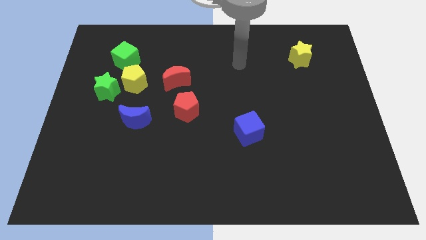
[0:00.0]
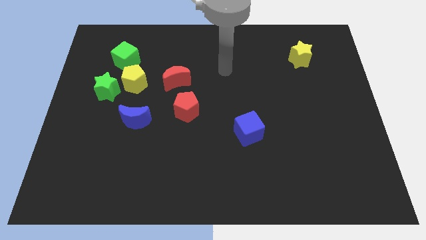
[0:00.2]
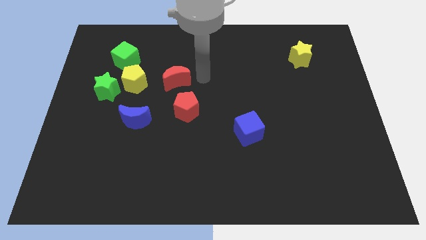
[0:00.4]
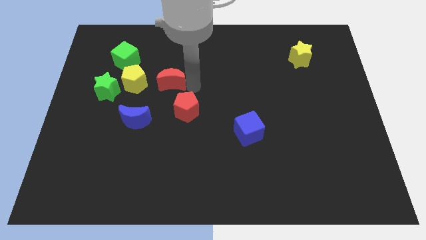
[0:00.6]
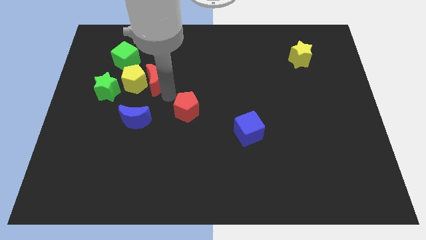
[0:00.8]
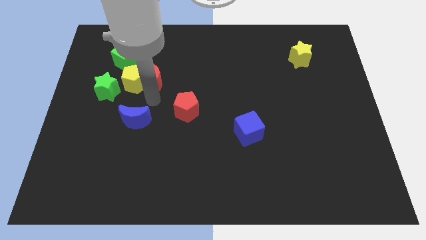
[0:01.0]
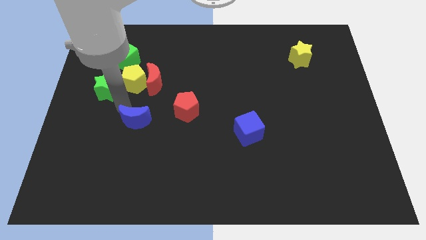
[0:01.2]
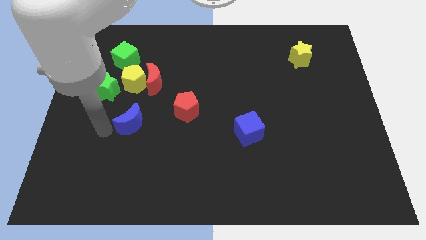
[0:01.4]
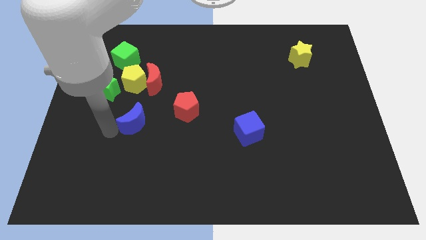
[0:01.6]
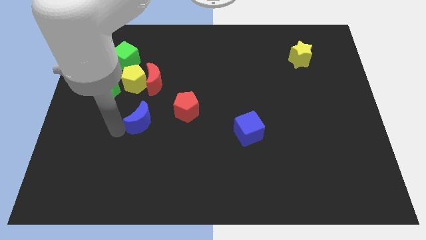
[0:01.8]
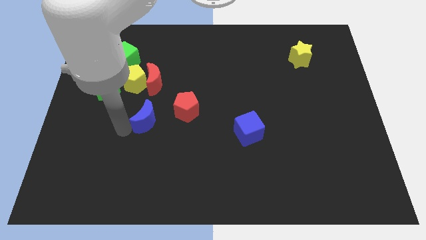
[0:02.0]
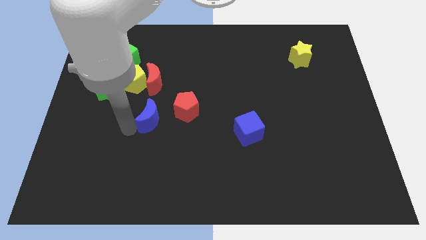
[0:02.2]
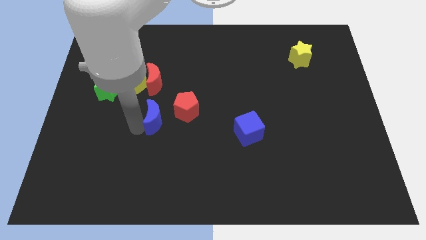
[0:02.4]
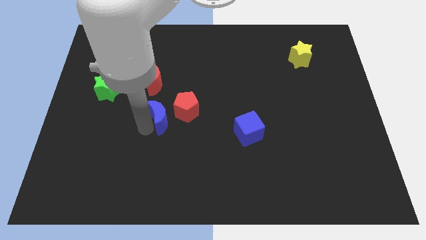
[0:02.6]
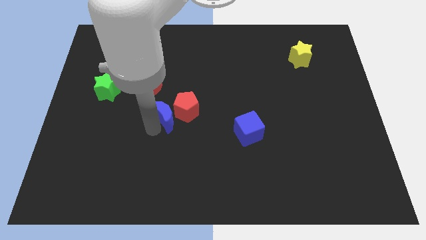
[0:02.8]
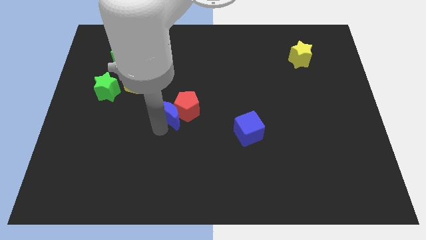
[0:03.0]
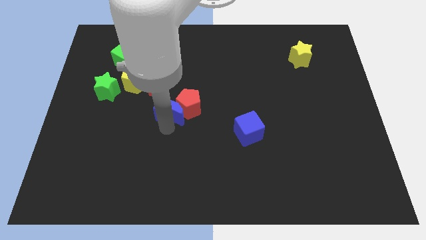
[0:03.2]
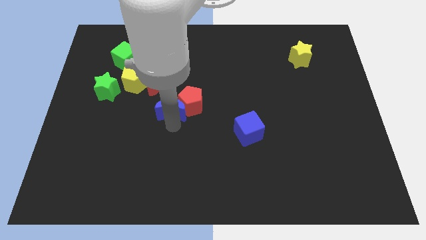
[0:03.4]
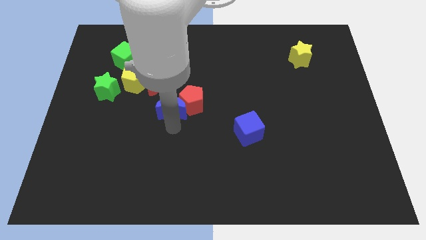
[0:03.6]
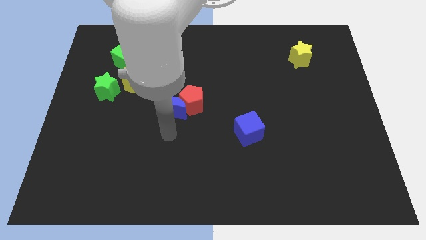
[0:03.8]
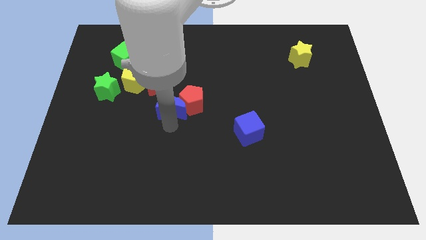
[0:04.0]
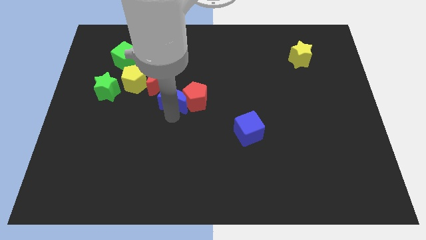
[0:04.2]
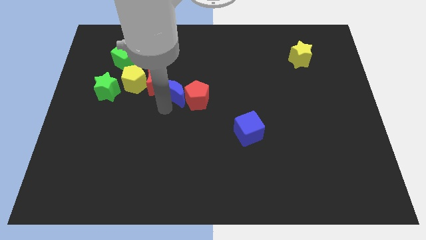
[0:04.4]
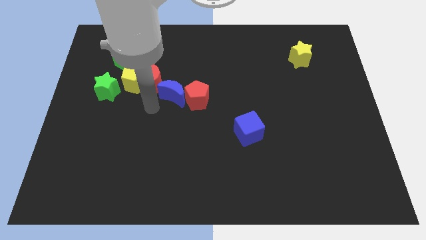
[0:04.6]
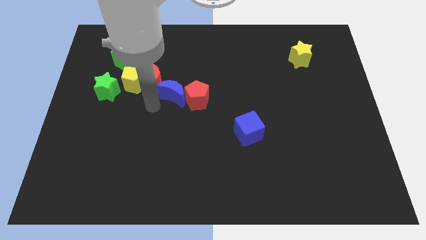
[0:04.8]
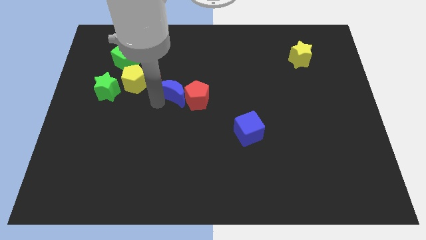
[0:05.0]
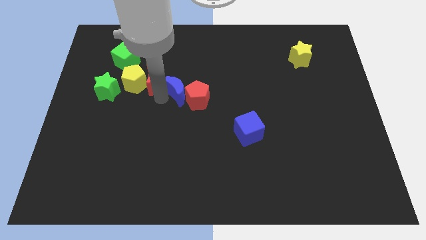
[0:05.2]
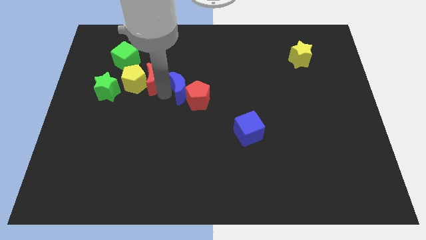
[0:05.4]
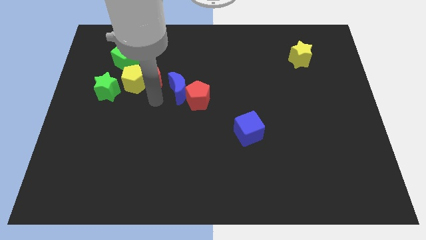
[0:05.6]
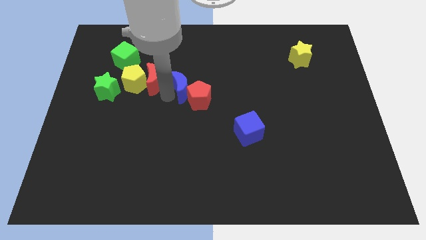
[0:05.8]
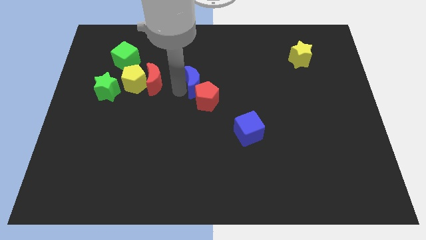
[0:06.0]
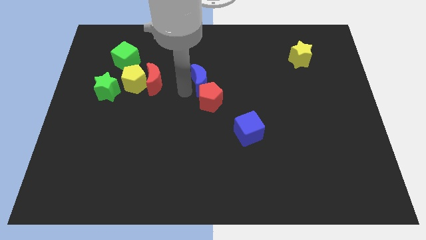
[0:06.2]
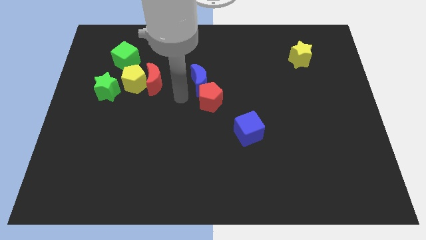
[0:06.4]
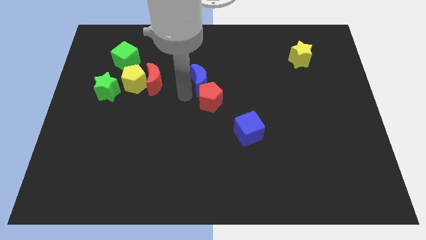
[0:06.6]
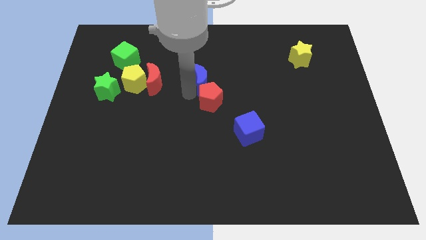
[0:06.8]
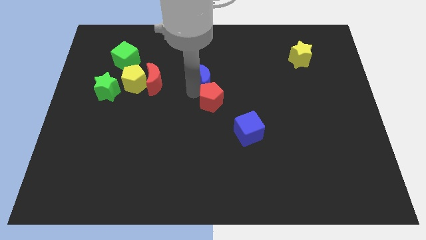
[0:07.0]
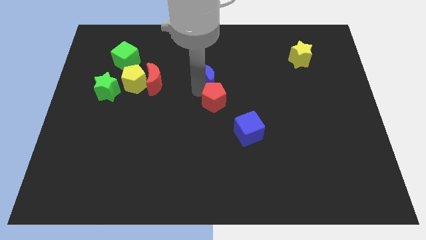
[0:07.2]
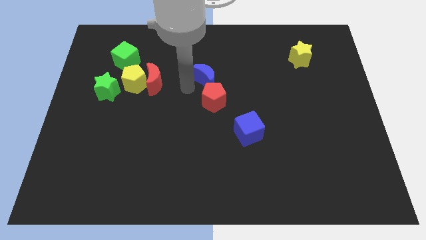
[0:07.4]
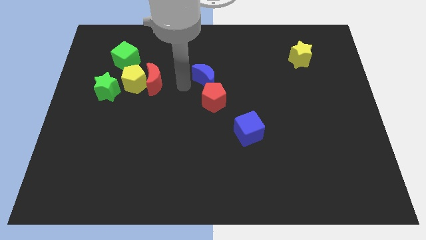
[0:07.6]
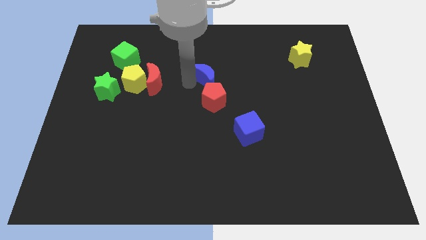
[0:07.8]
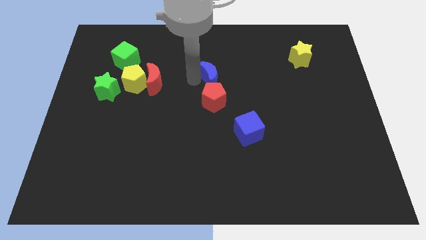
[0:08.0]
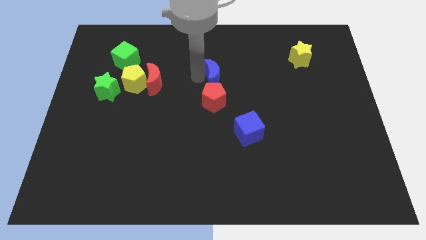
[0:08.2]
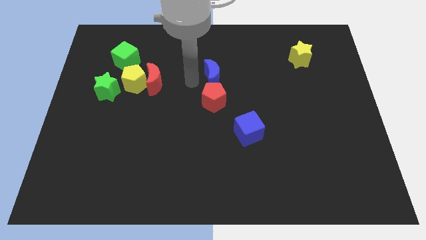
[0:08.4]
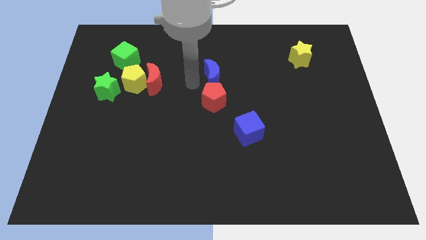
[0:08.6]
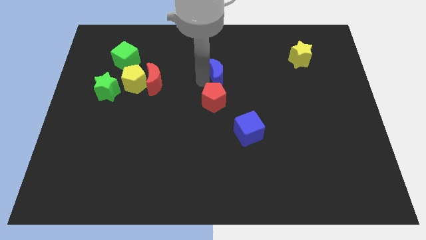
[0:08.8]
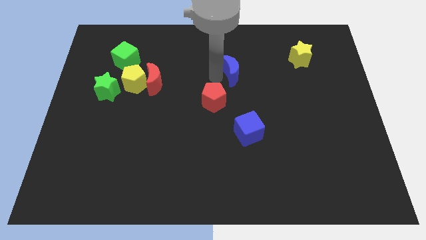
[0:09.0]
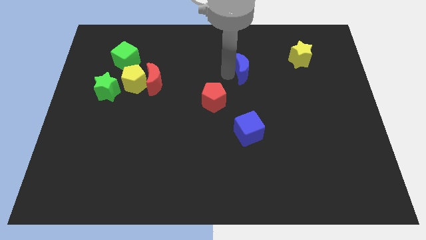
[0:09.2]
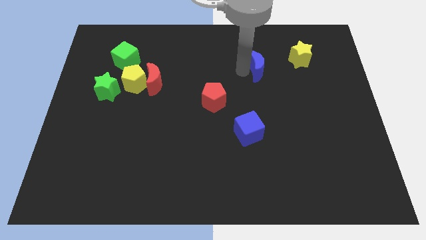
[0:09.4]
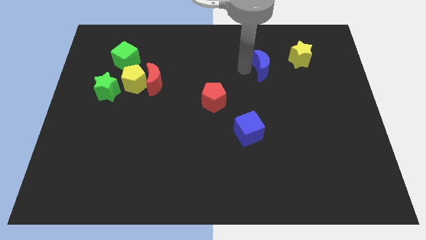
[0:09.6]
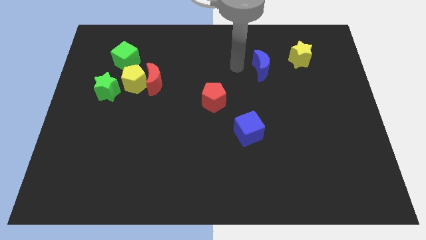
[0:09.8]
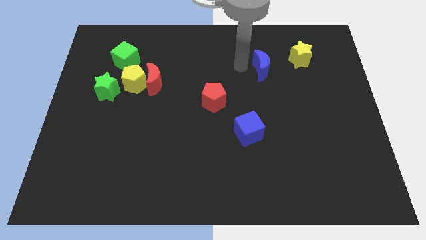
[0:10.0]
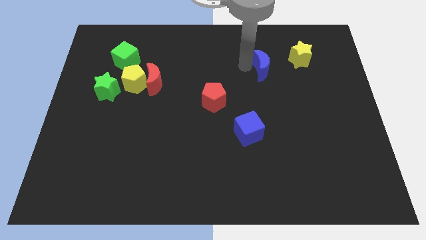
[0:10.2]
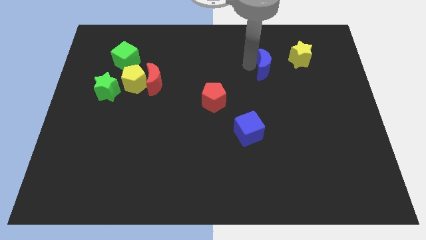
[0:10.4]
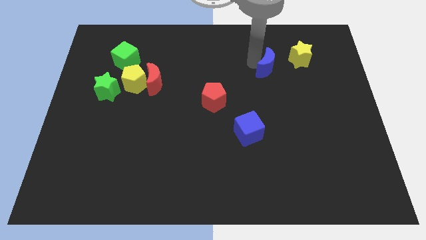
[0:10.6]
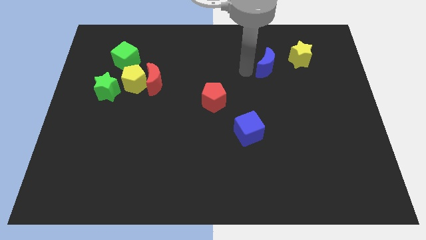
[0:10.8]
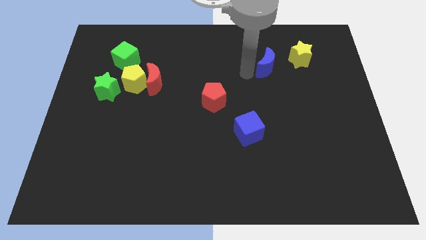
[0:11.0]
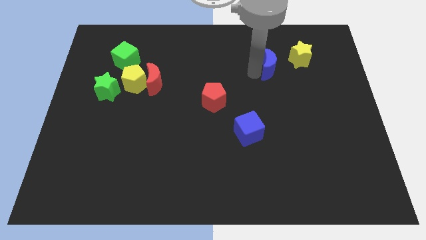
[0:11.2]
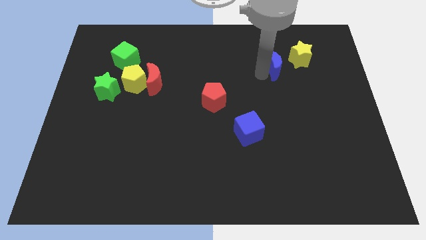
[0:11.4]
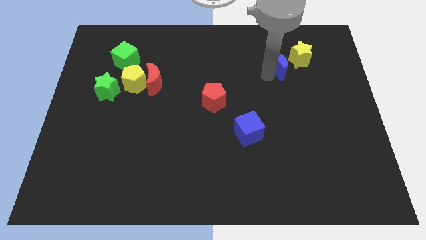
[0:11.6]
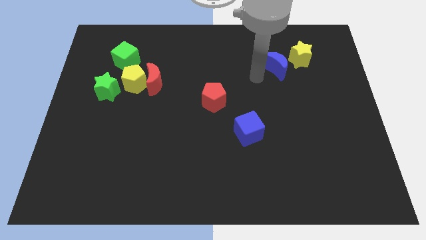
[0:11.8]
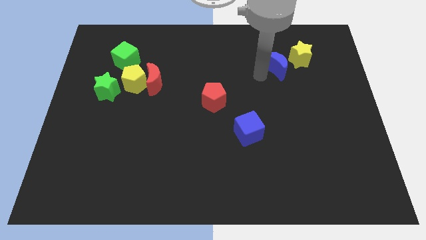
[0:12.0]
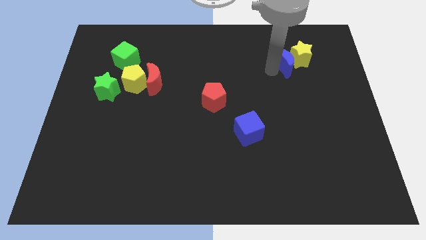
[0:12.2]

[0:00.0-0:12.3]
push the blue moon close to the yellow star

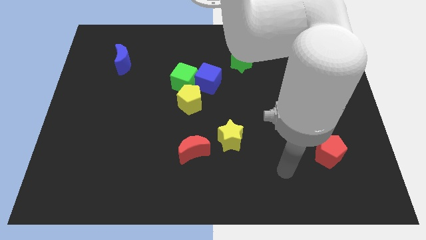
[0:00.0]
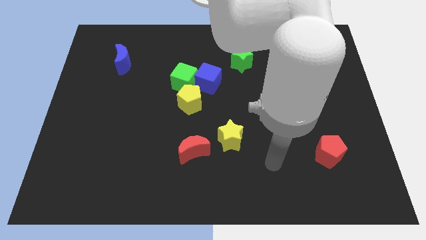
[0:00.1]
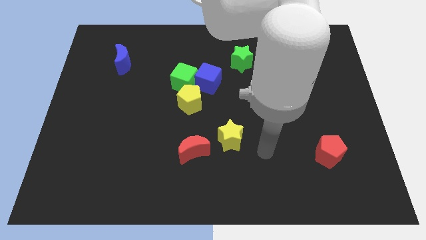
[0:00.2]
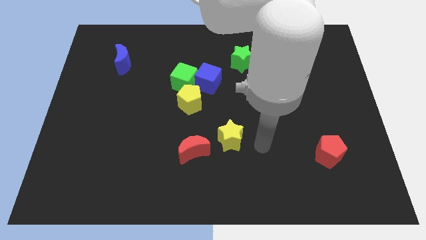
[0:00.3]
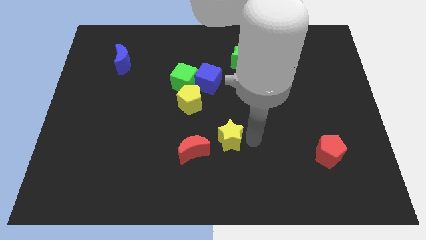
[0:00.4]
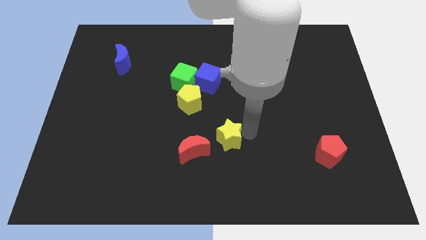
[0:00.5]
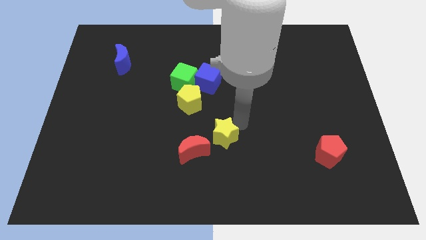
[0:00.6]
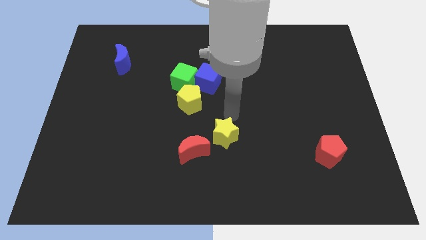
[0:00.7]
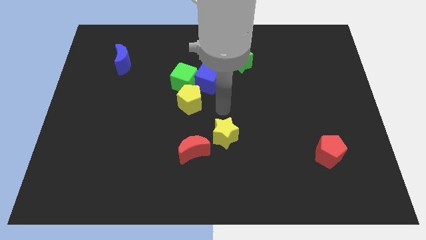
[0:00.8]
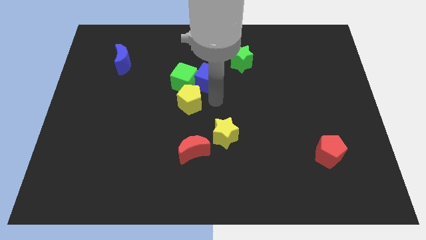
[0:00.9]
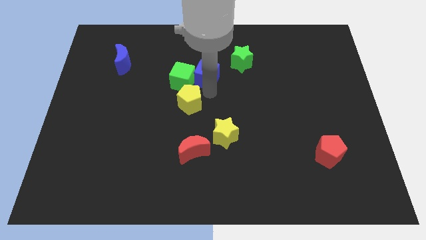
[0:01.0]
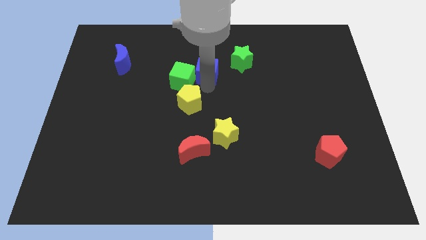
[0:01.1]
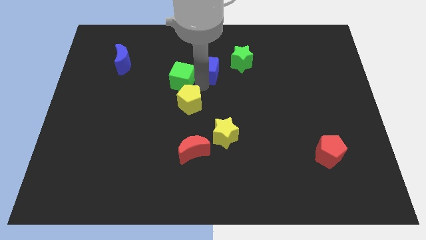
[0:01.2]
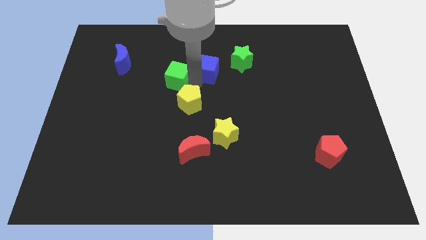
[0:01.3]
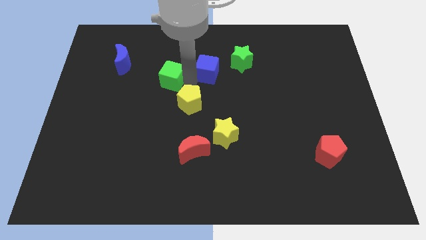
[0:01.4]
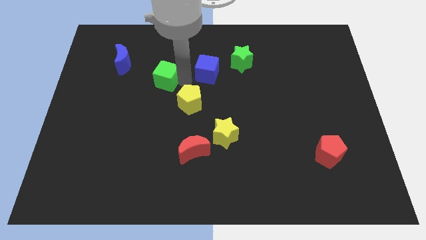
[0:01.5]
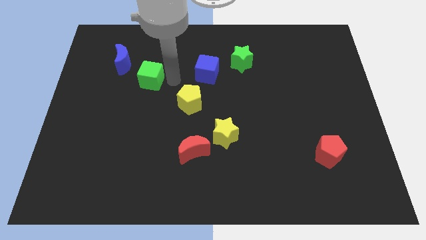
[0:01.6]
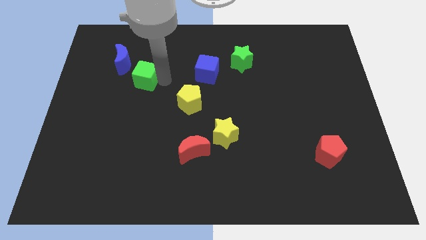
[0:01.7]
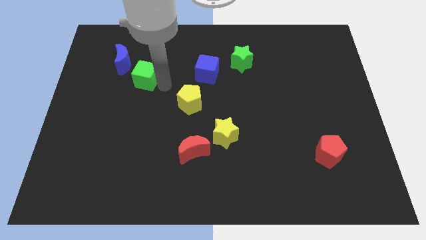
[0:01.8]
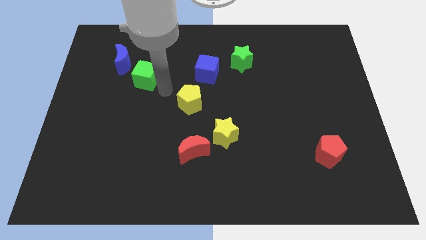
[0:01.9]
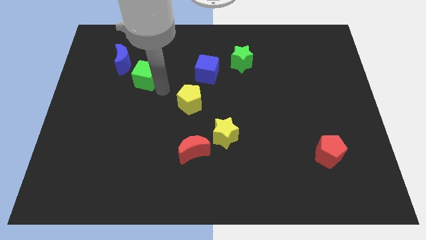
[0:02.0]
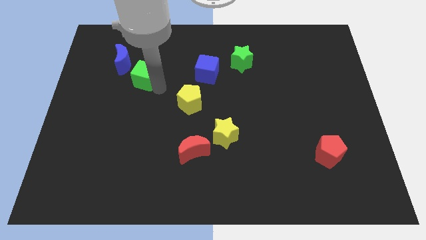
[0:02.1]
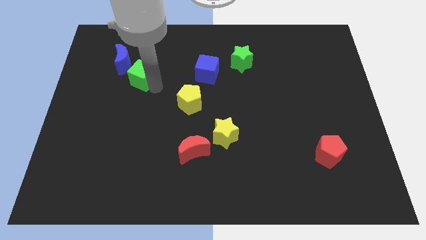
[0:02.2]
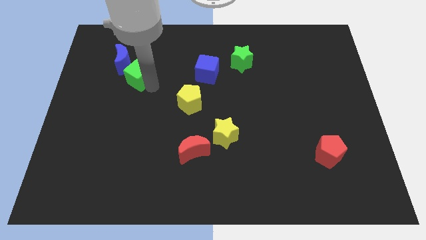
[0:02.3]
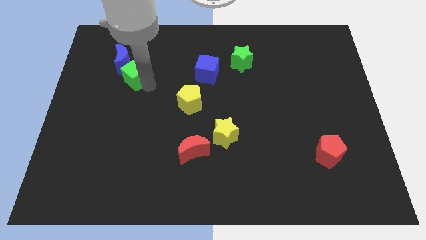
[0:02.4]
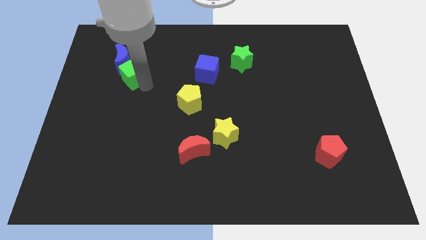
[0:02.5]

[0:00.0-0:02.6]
slide the green cube next to the blue moon

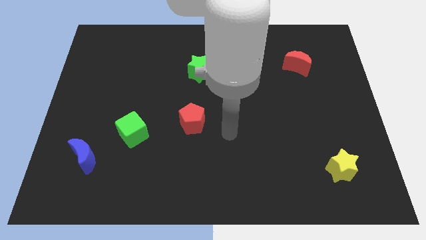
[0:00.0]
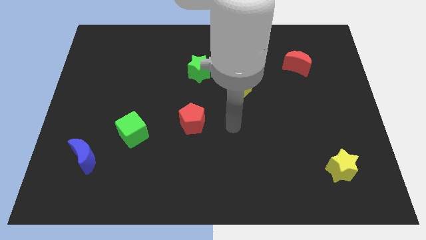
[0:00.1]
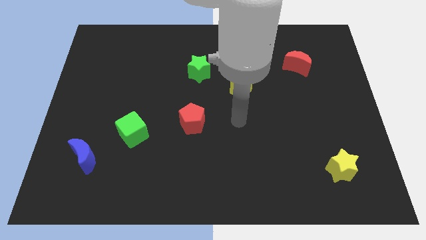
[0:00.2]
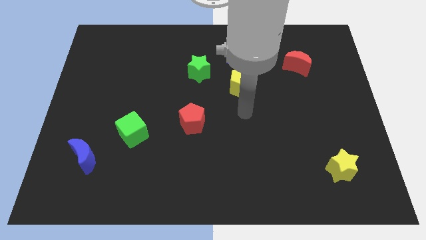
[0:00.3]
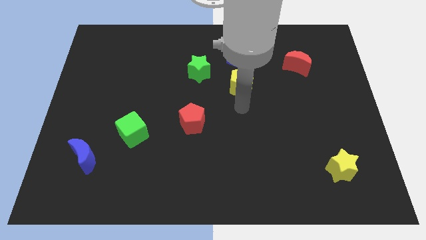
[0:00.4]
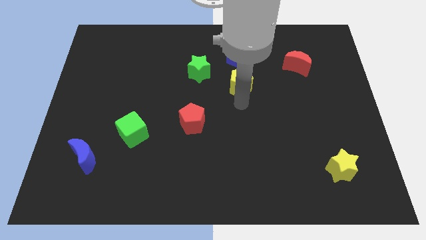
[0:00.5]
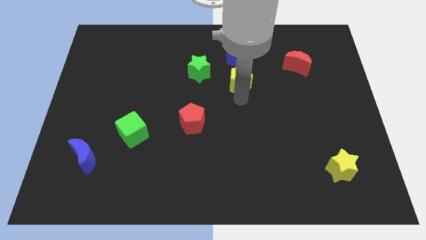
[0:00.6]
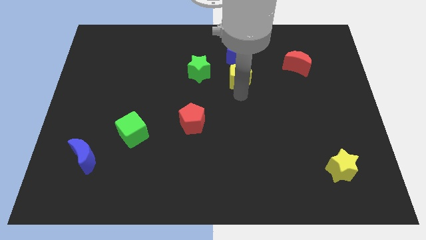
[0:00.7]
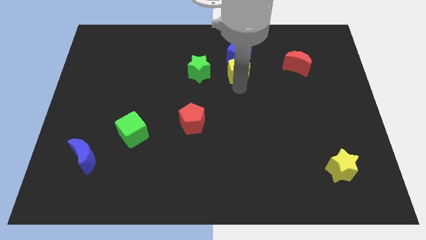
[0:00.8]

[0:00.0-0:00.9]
push the yellow pentagon towards the blue cube
